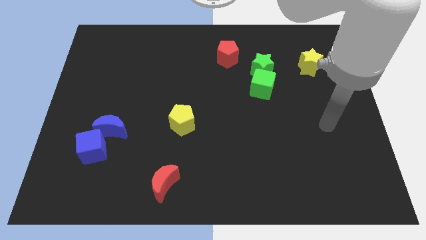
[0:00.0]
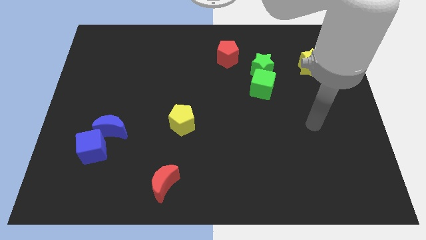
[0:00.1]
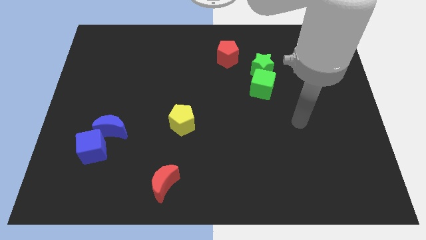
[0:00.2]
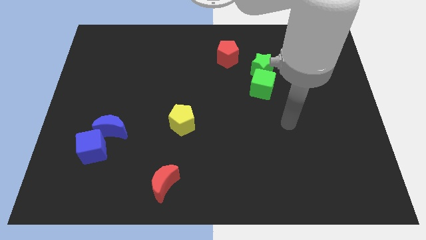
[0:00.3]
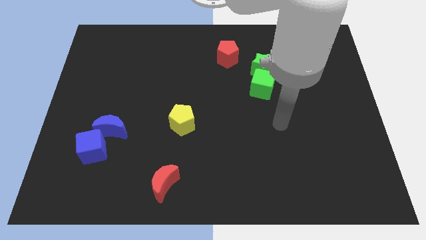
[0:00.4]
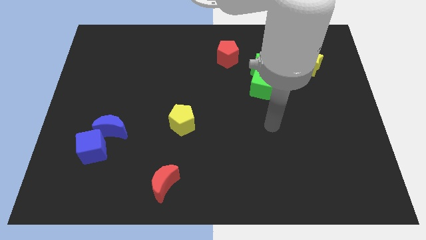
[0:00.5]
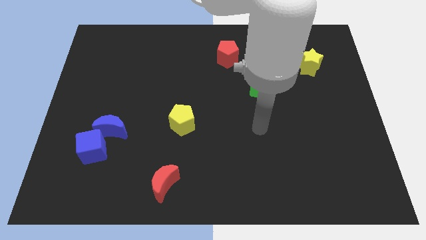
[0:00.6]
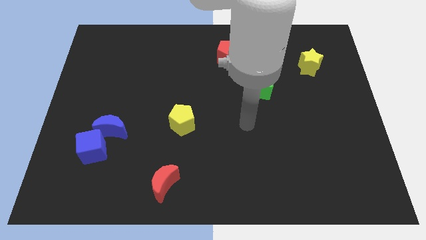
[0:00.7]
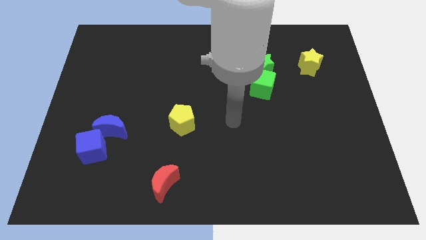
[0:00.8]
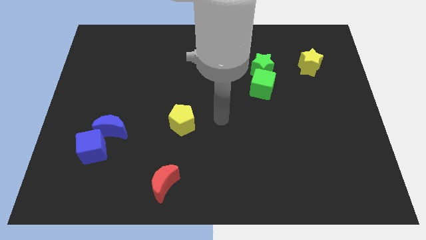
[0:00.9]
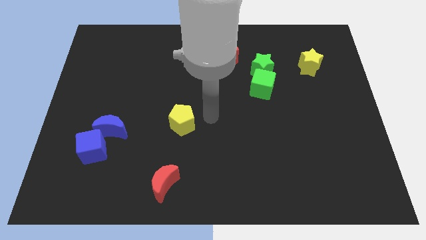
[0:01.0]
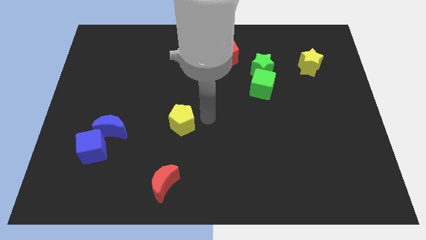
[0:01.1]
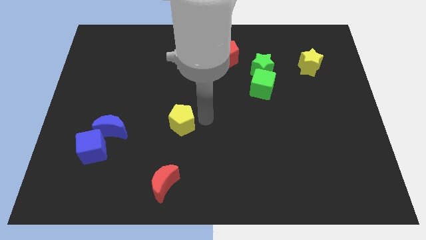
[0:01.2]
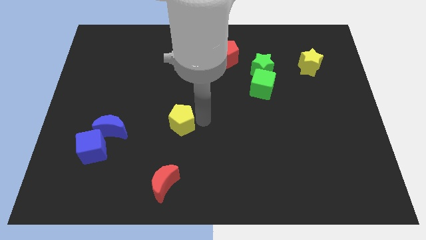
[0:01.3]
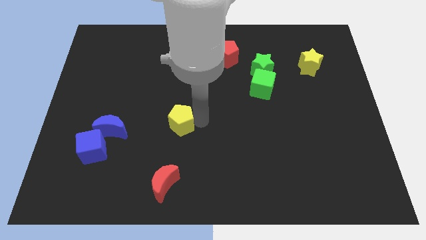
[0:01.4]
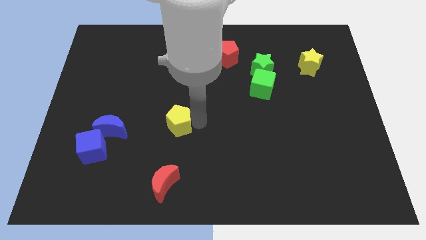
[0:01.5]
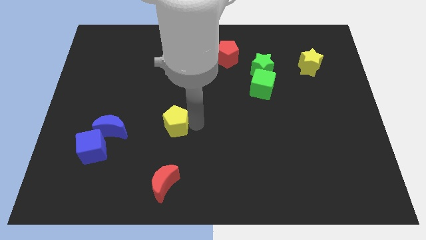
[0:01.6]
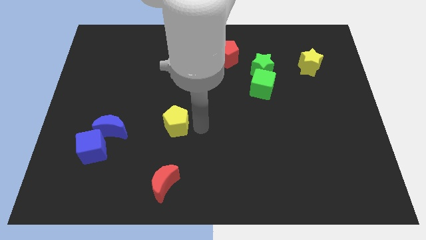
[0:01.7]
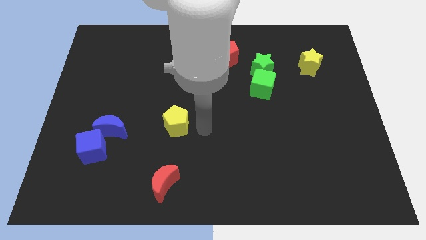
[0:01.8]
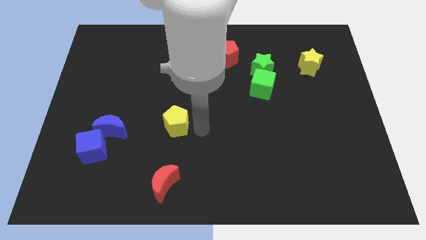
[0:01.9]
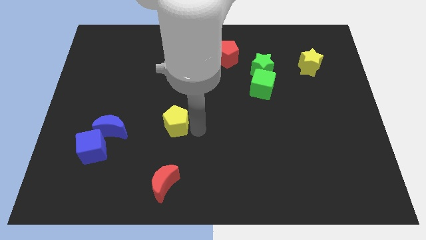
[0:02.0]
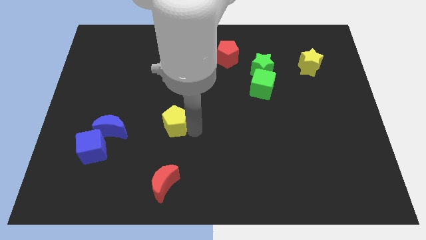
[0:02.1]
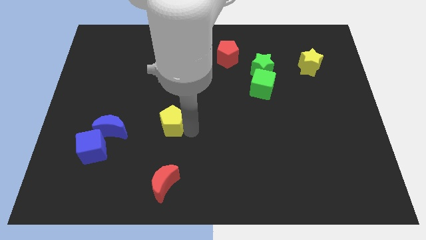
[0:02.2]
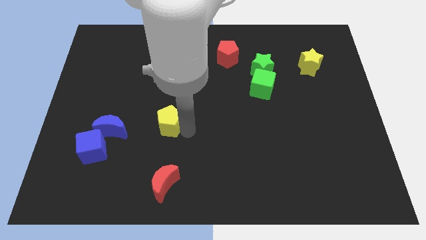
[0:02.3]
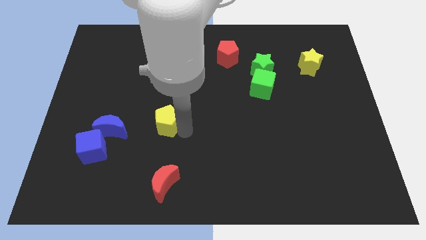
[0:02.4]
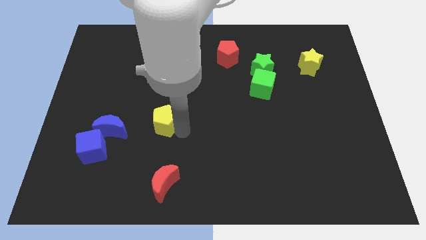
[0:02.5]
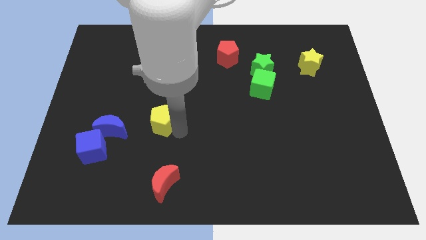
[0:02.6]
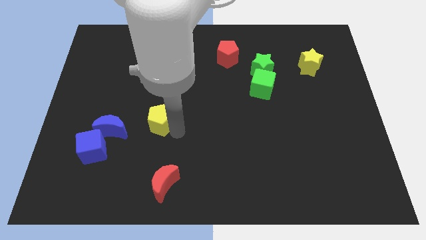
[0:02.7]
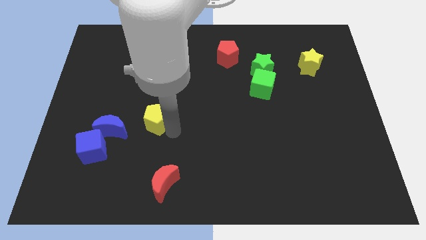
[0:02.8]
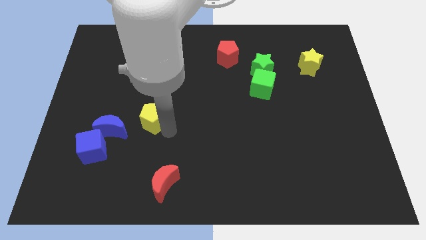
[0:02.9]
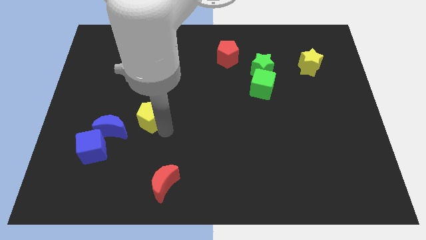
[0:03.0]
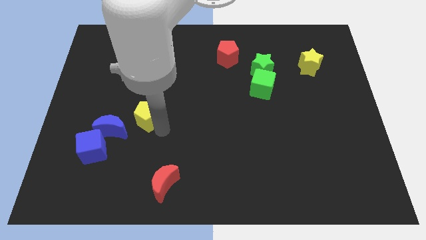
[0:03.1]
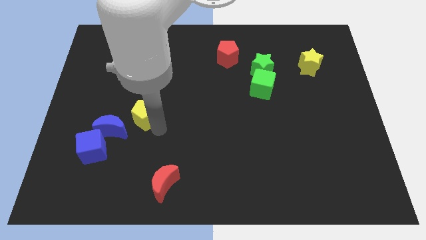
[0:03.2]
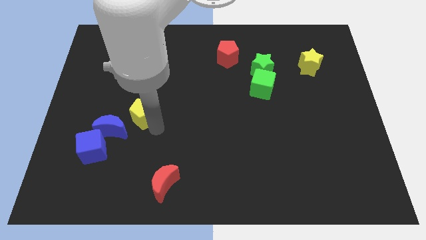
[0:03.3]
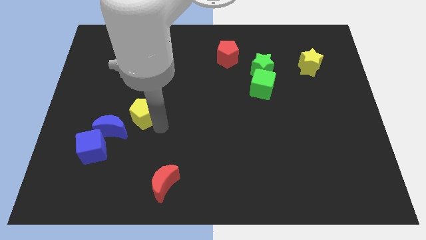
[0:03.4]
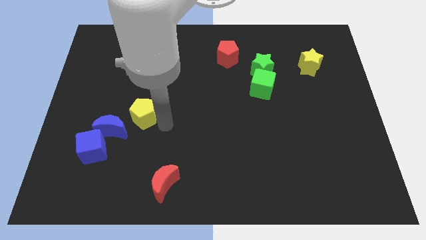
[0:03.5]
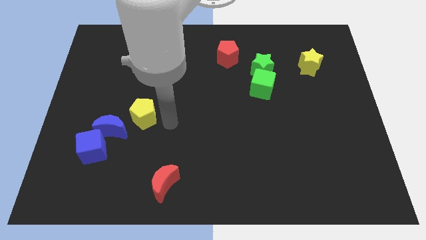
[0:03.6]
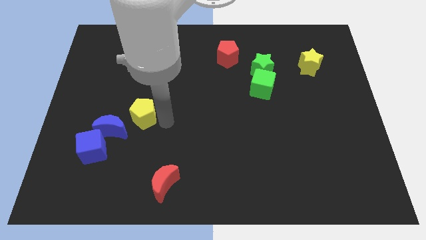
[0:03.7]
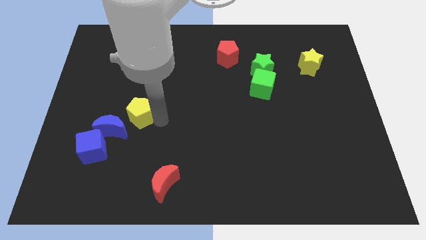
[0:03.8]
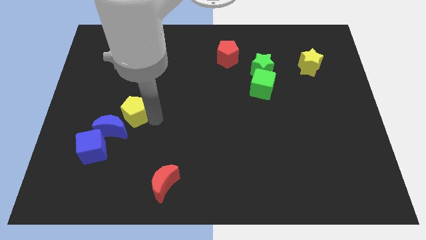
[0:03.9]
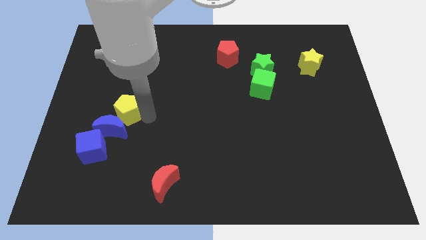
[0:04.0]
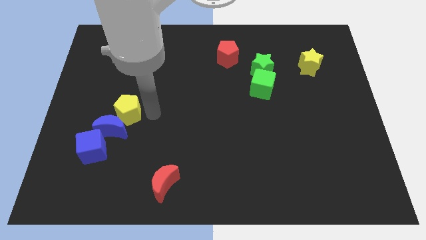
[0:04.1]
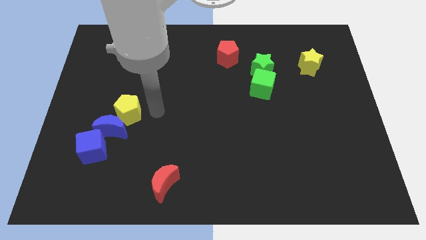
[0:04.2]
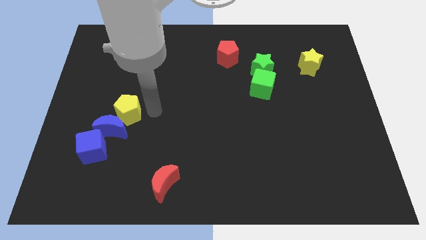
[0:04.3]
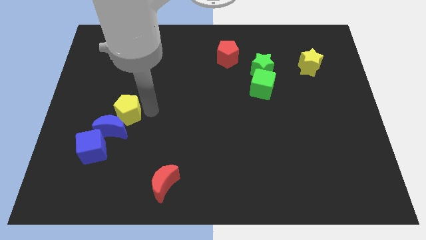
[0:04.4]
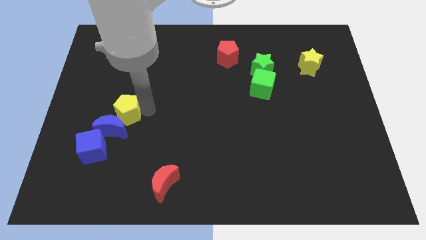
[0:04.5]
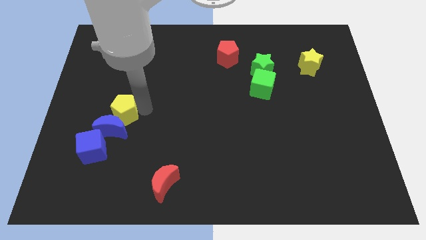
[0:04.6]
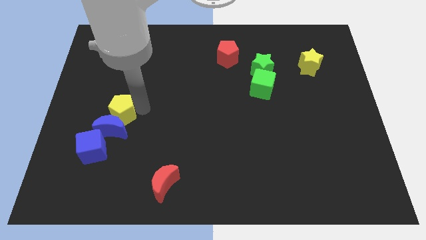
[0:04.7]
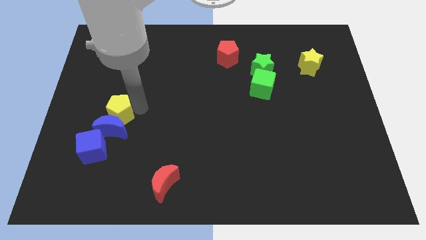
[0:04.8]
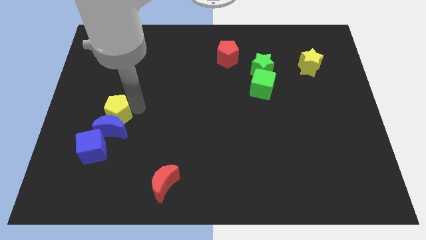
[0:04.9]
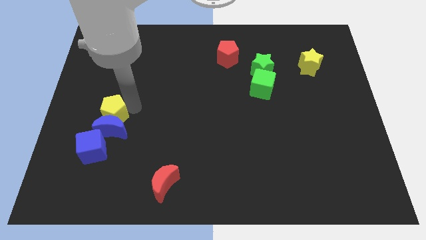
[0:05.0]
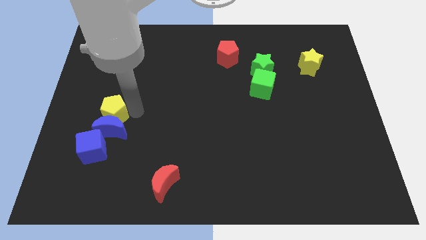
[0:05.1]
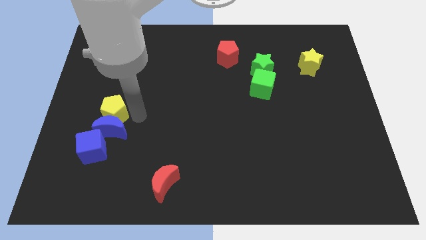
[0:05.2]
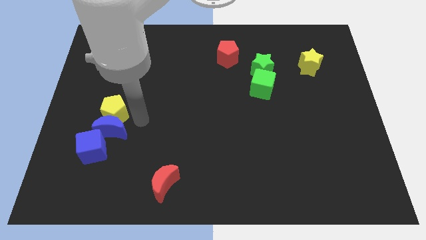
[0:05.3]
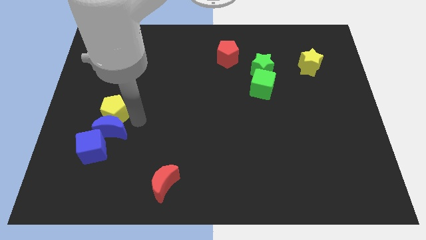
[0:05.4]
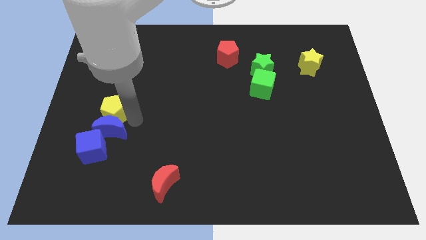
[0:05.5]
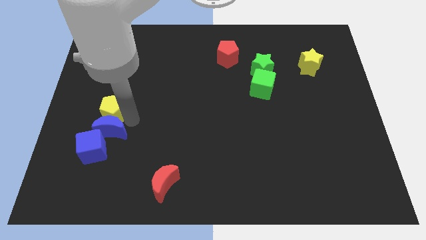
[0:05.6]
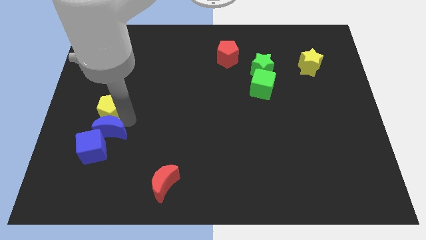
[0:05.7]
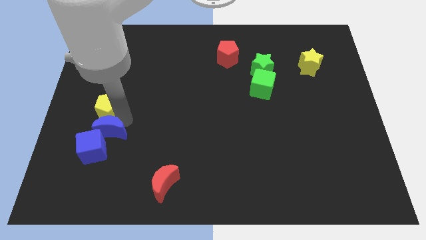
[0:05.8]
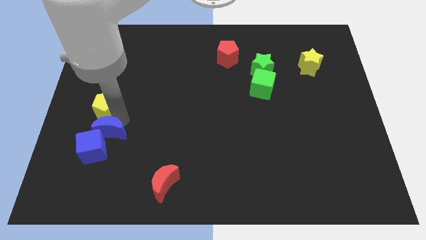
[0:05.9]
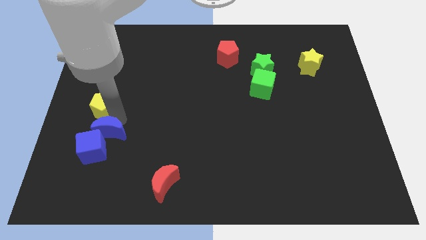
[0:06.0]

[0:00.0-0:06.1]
slide the yellow pentagon to the left side
